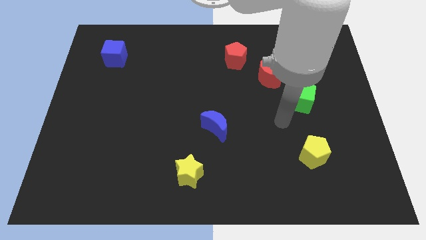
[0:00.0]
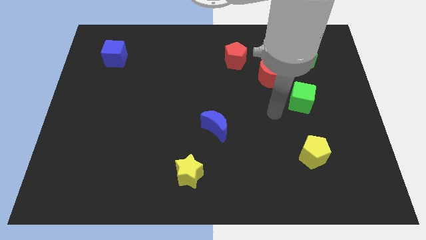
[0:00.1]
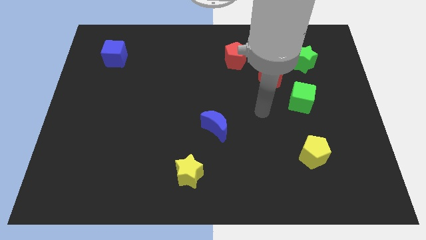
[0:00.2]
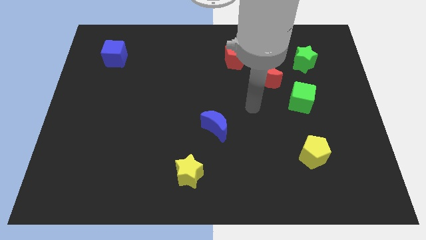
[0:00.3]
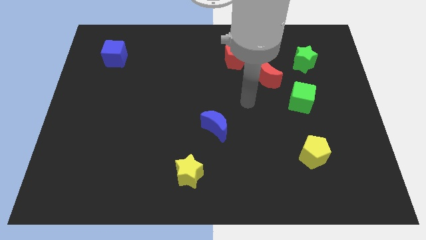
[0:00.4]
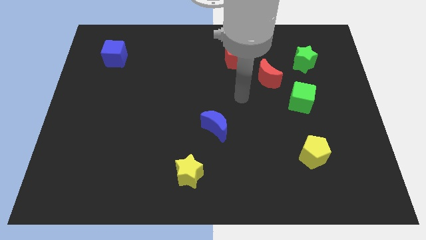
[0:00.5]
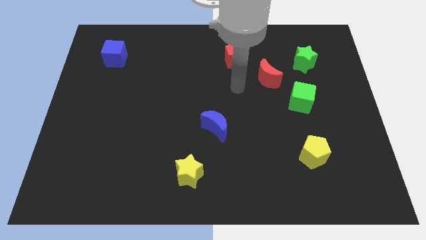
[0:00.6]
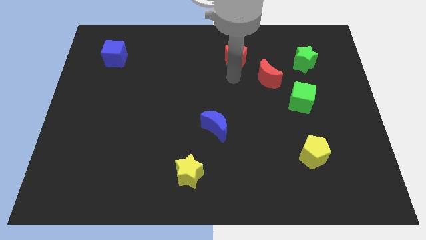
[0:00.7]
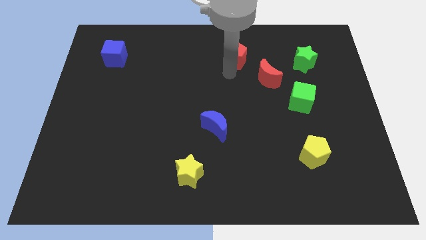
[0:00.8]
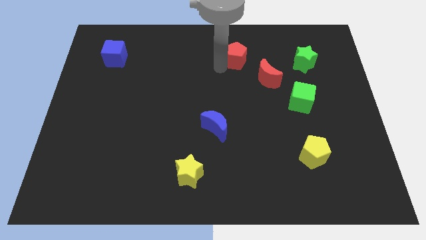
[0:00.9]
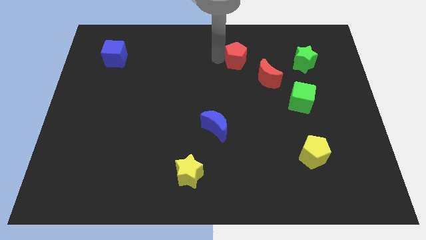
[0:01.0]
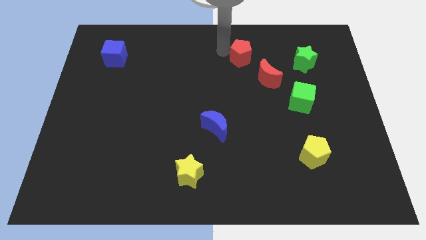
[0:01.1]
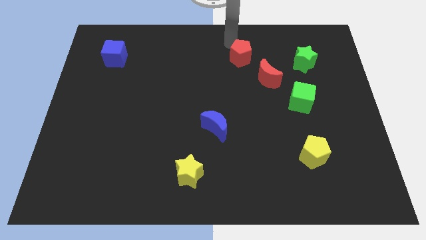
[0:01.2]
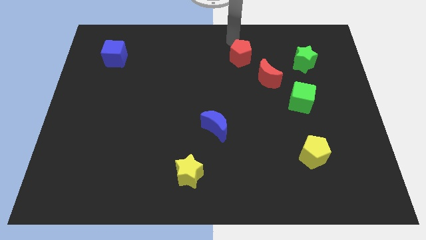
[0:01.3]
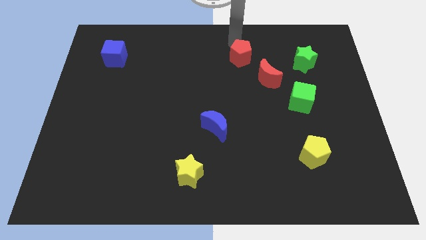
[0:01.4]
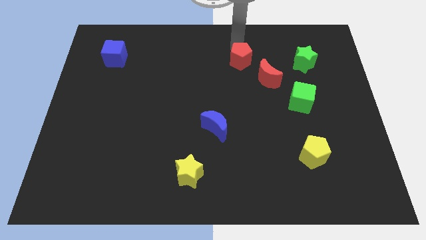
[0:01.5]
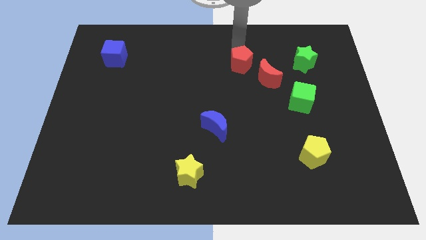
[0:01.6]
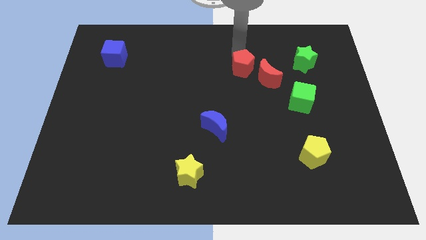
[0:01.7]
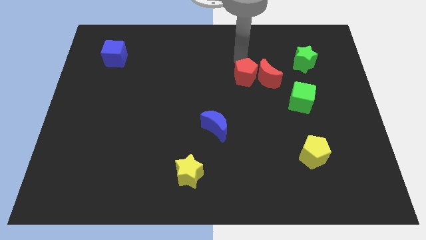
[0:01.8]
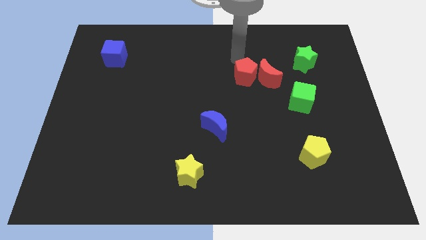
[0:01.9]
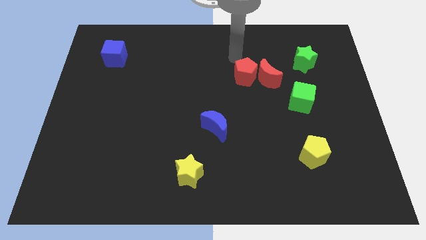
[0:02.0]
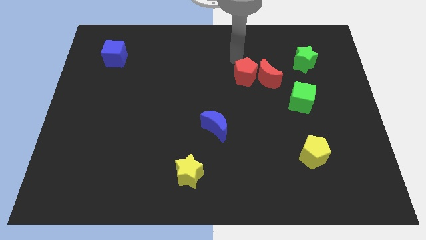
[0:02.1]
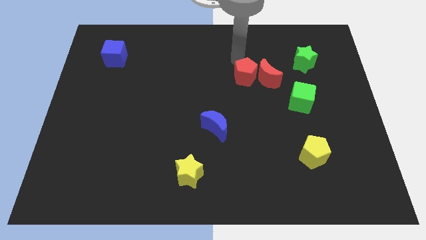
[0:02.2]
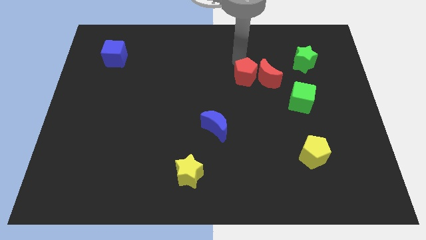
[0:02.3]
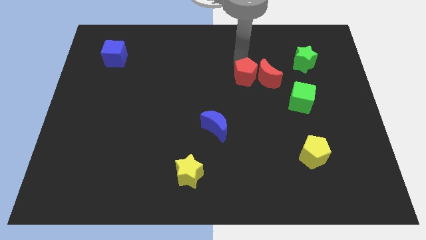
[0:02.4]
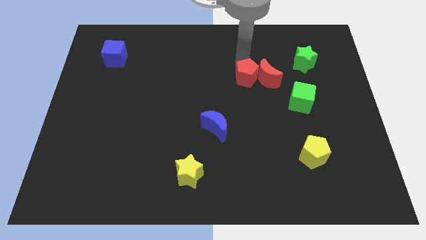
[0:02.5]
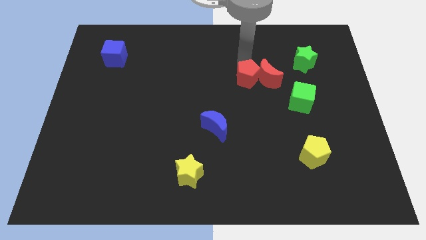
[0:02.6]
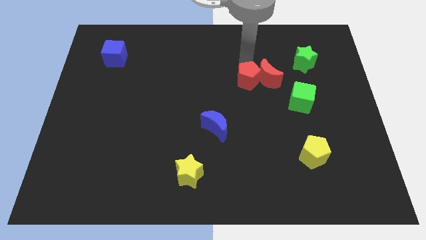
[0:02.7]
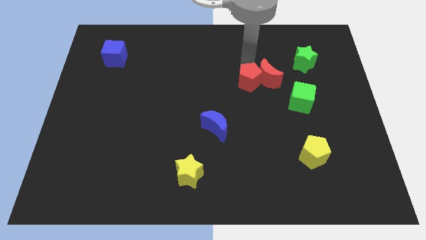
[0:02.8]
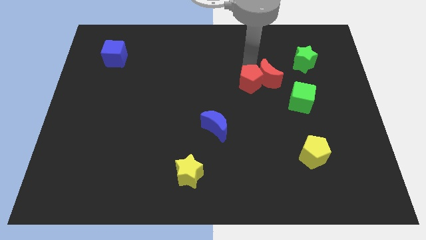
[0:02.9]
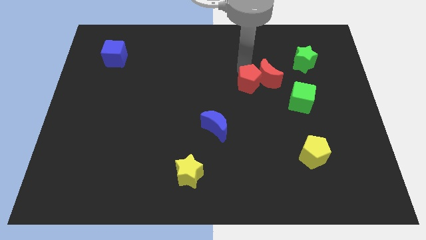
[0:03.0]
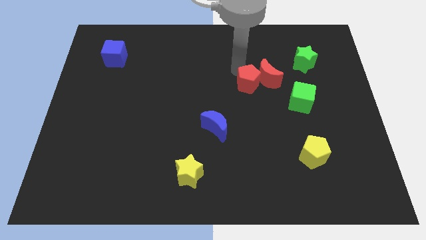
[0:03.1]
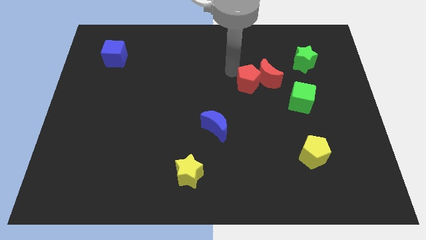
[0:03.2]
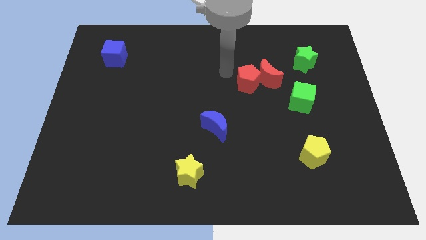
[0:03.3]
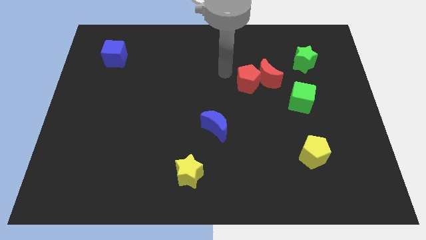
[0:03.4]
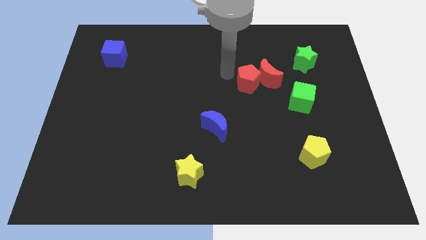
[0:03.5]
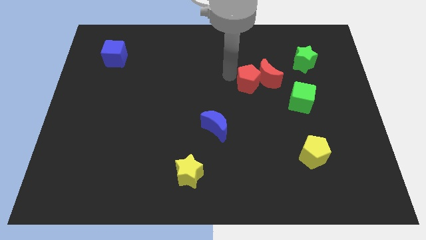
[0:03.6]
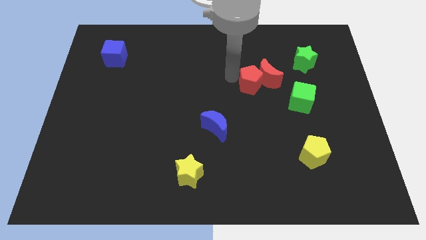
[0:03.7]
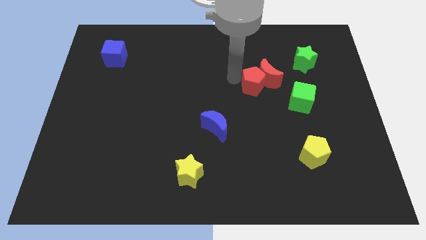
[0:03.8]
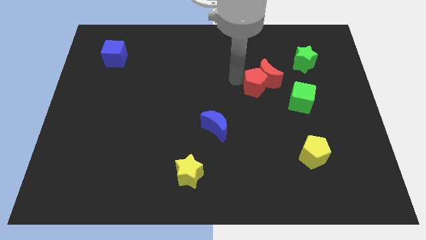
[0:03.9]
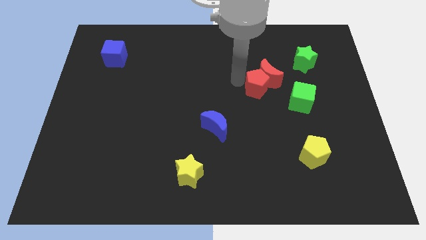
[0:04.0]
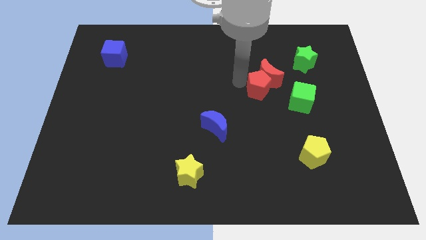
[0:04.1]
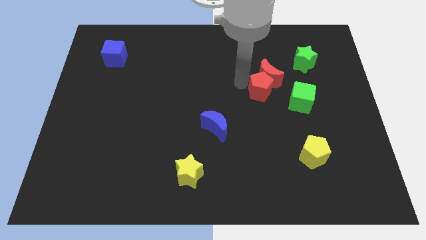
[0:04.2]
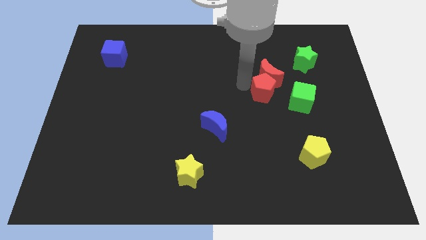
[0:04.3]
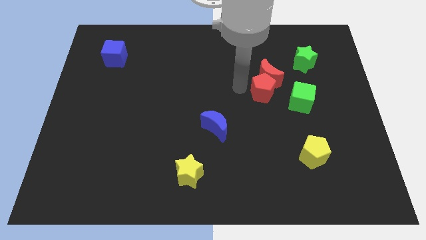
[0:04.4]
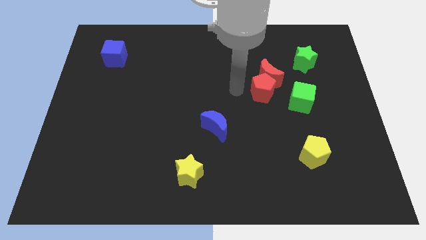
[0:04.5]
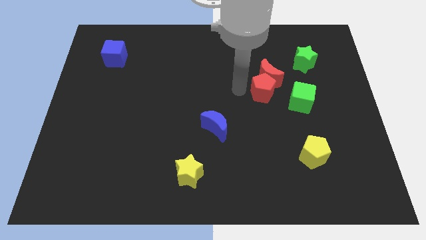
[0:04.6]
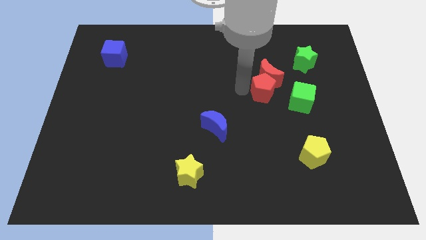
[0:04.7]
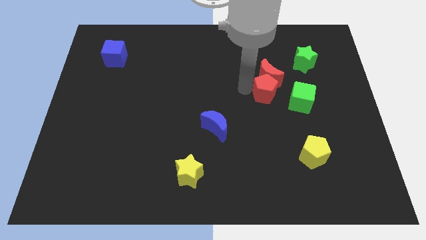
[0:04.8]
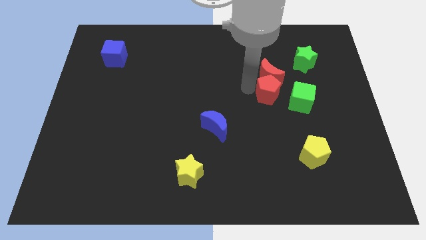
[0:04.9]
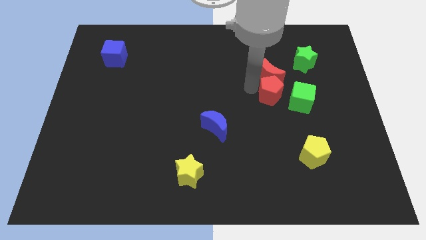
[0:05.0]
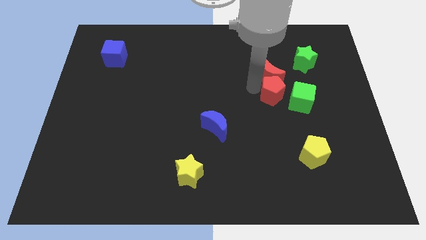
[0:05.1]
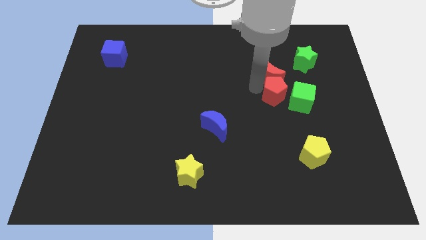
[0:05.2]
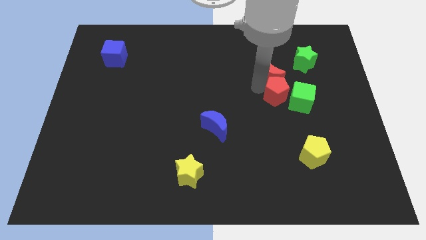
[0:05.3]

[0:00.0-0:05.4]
push the red pentagon close to the green cube

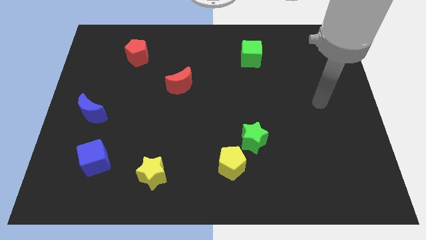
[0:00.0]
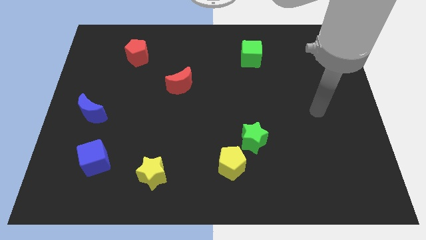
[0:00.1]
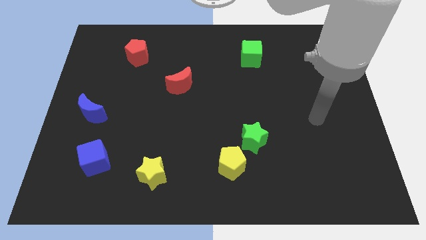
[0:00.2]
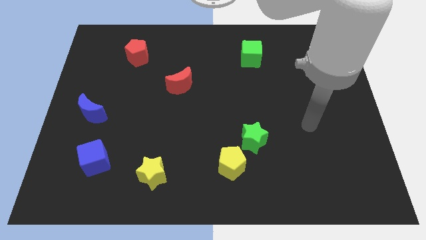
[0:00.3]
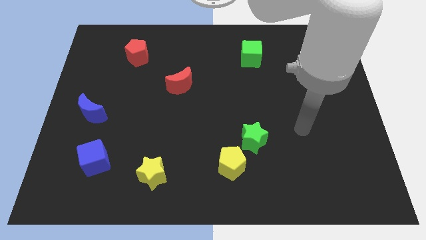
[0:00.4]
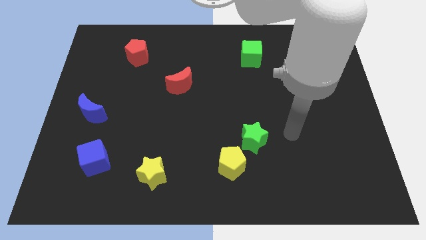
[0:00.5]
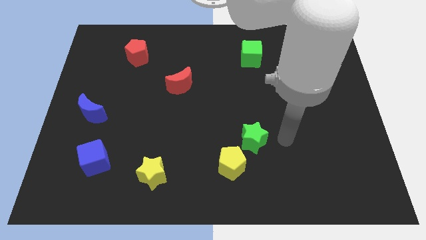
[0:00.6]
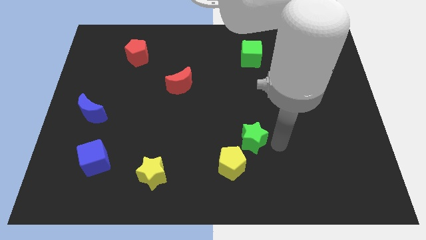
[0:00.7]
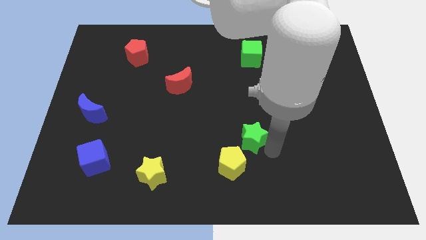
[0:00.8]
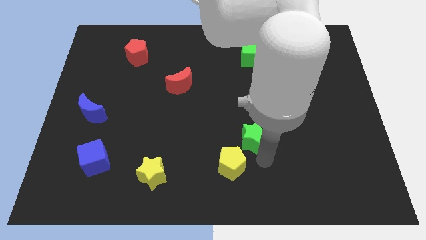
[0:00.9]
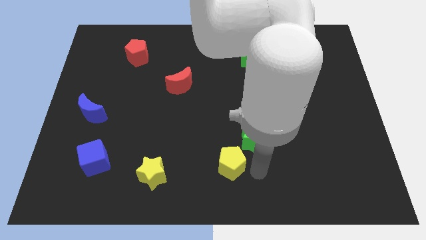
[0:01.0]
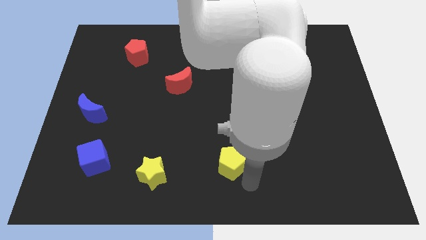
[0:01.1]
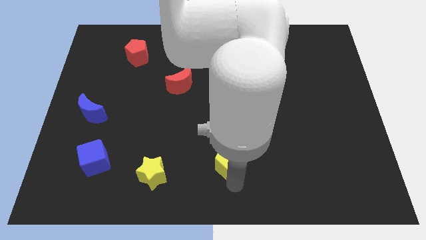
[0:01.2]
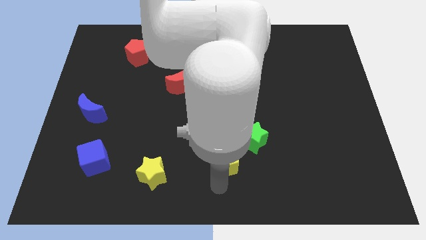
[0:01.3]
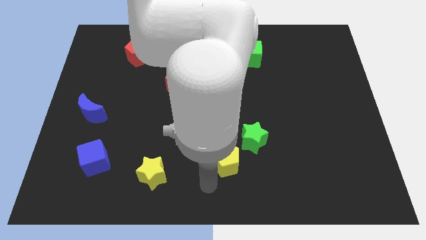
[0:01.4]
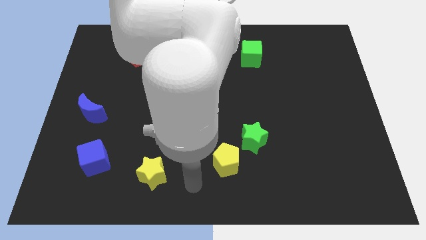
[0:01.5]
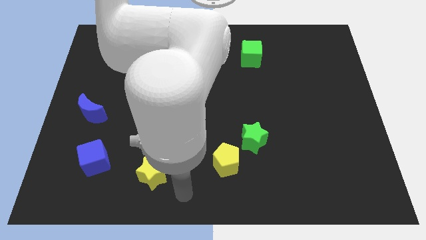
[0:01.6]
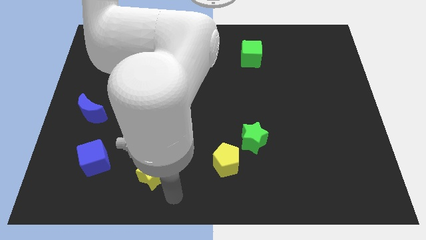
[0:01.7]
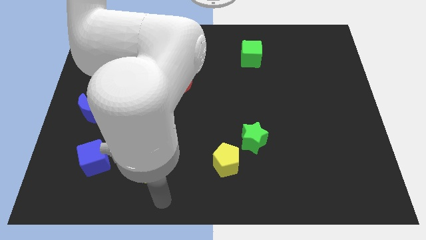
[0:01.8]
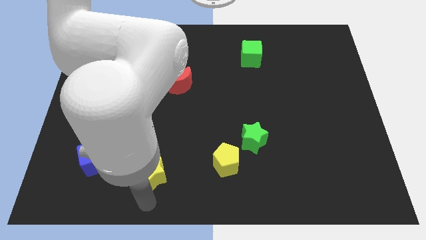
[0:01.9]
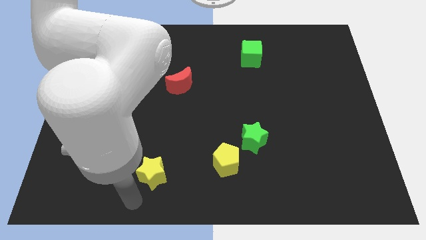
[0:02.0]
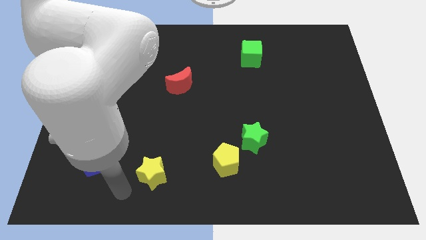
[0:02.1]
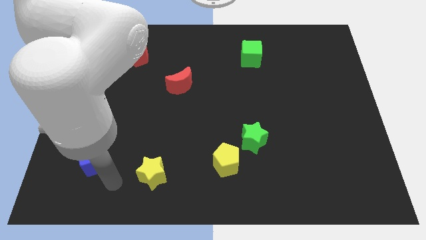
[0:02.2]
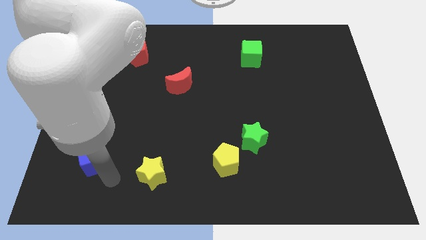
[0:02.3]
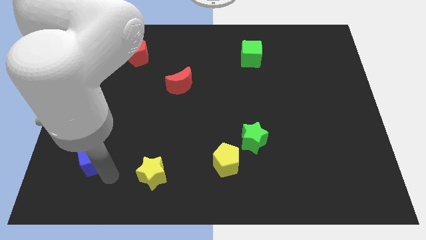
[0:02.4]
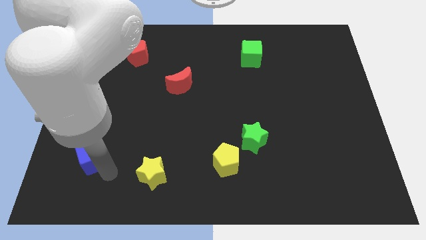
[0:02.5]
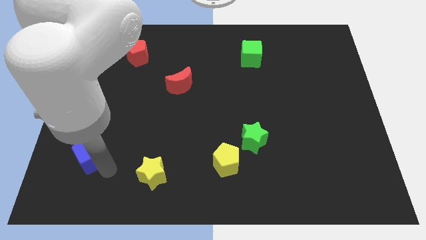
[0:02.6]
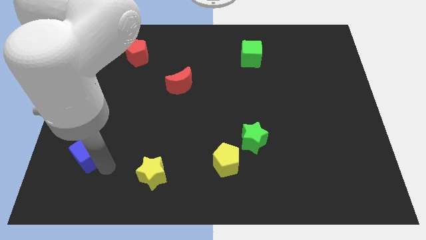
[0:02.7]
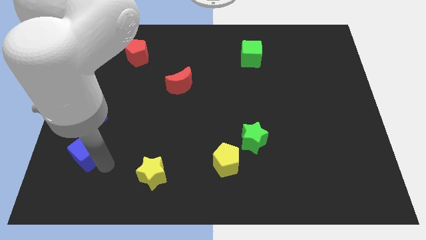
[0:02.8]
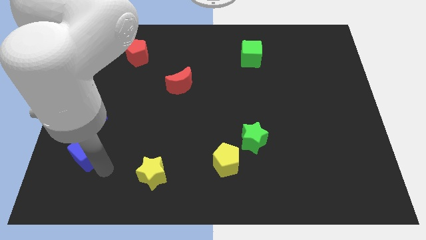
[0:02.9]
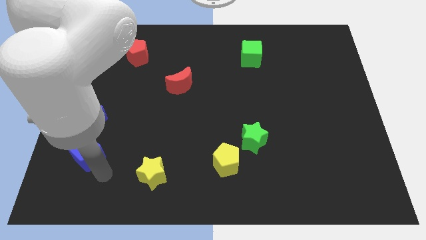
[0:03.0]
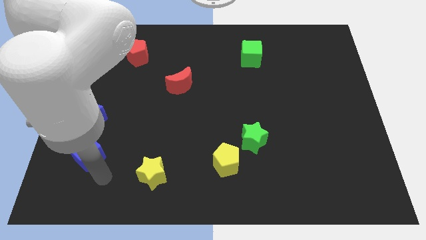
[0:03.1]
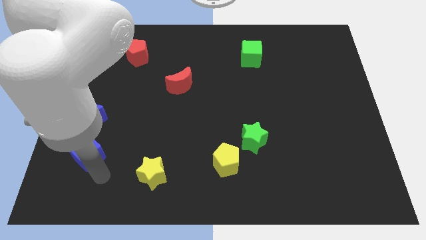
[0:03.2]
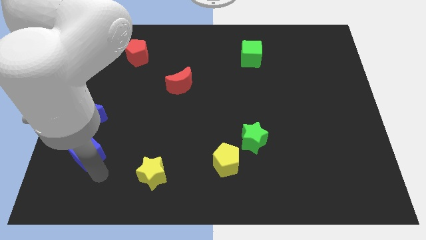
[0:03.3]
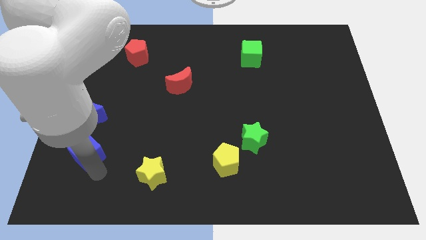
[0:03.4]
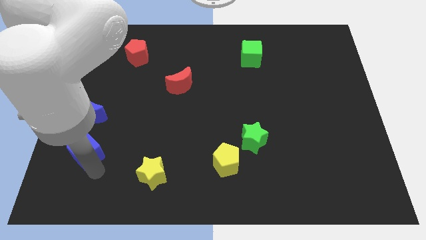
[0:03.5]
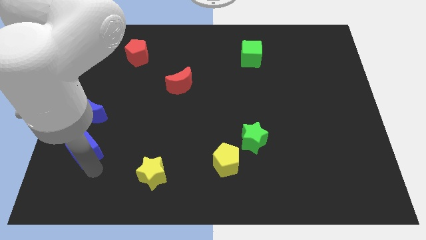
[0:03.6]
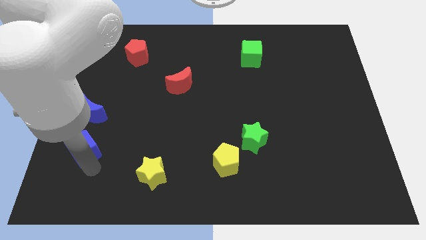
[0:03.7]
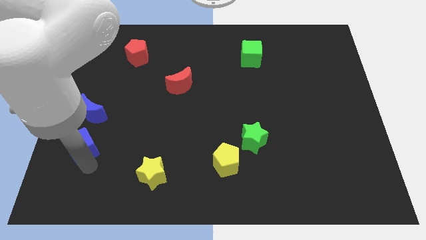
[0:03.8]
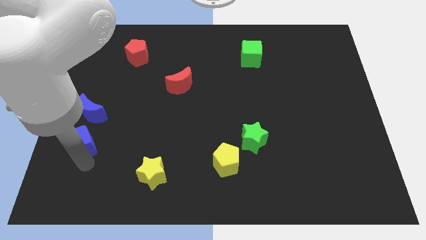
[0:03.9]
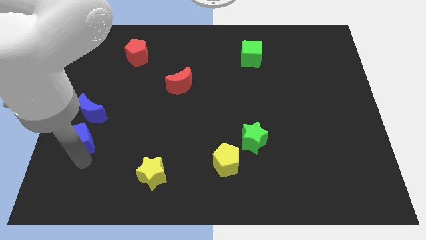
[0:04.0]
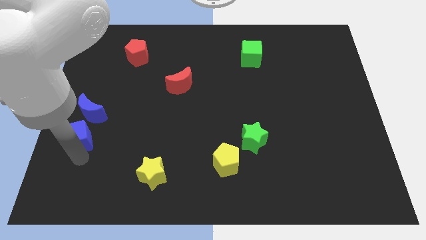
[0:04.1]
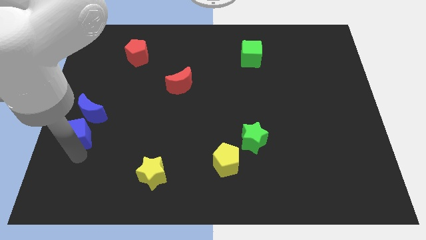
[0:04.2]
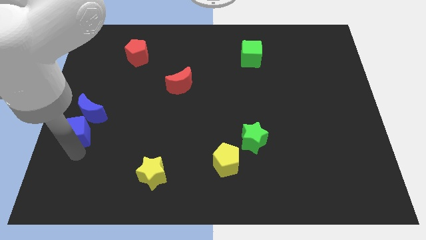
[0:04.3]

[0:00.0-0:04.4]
move the blue cube next to the blue moon
